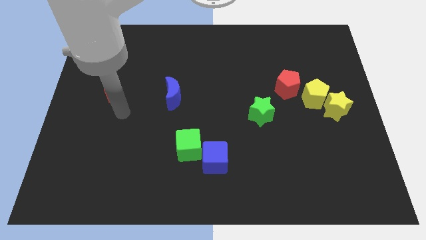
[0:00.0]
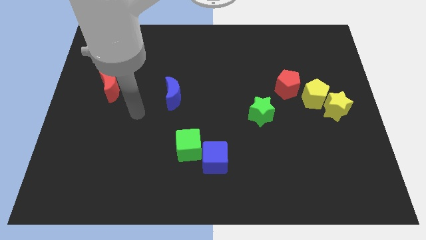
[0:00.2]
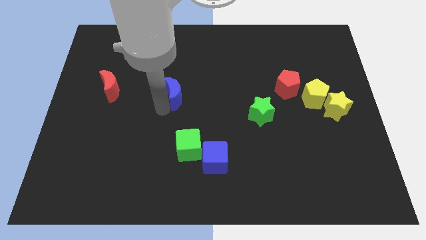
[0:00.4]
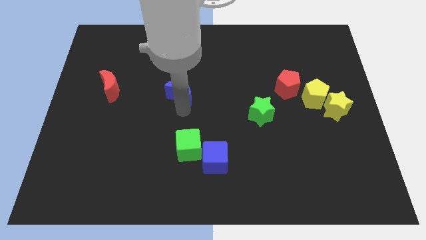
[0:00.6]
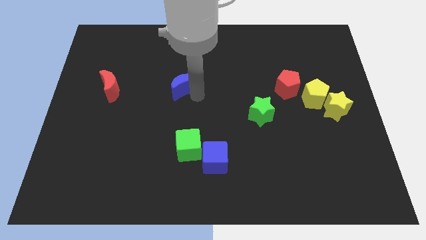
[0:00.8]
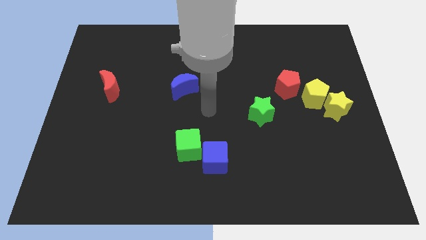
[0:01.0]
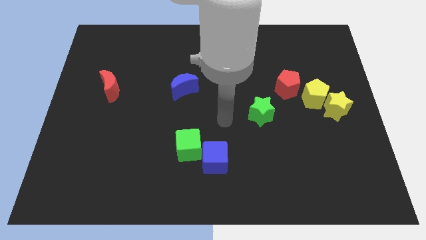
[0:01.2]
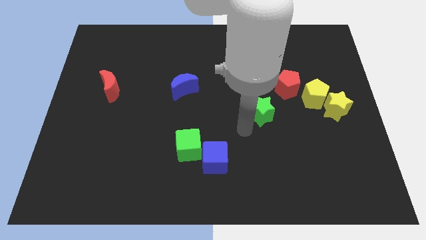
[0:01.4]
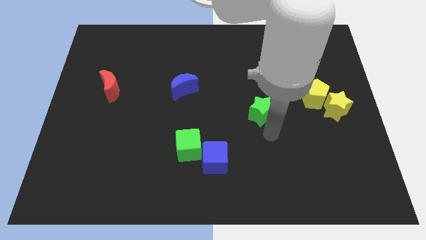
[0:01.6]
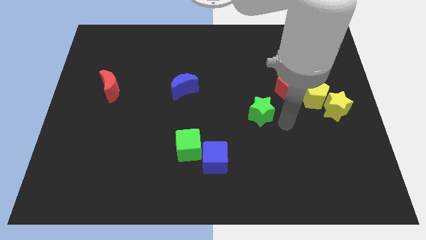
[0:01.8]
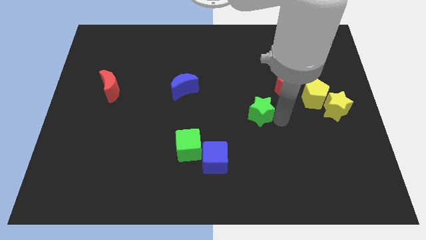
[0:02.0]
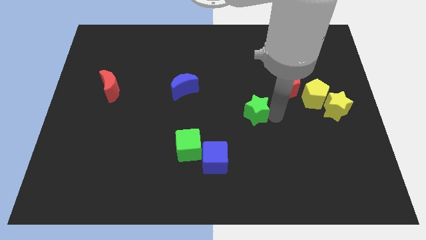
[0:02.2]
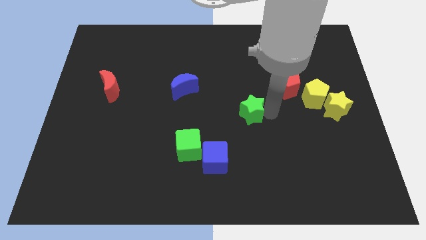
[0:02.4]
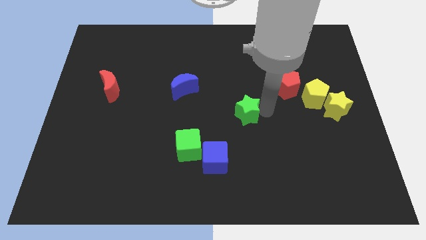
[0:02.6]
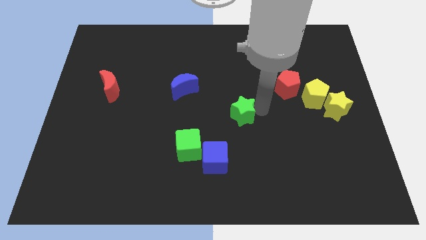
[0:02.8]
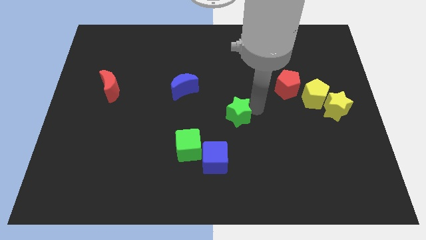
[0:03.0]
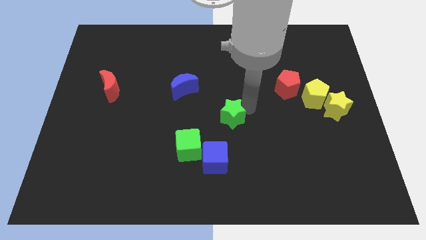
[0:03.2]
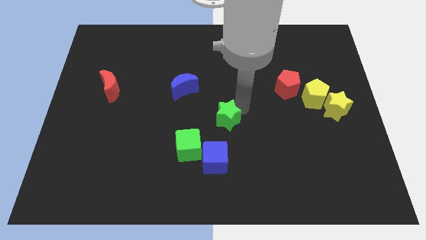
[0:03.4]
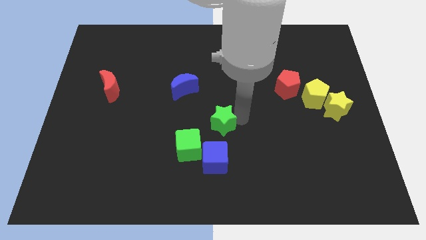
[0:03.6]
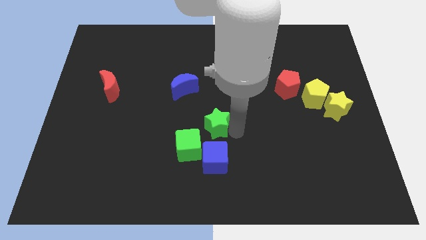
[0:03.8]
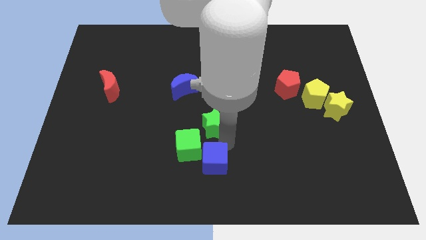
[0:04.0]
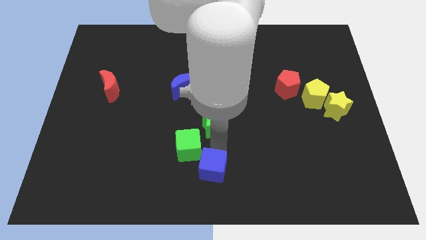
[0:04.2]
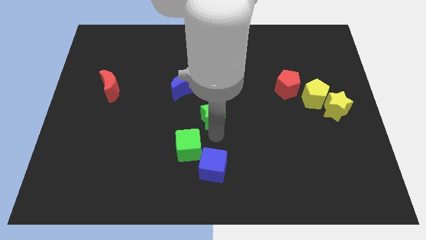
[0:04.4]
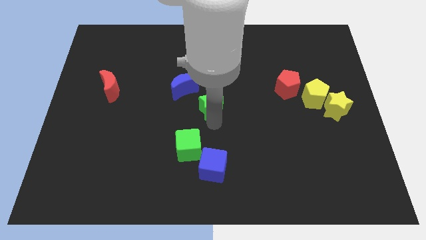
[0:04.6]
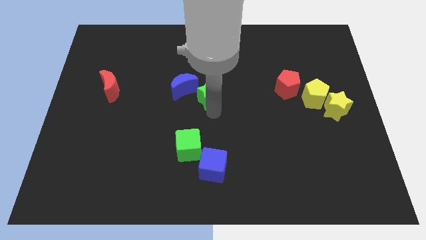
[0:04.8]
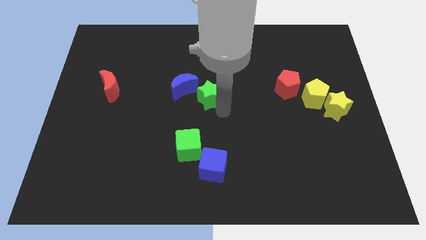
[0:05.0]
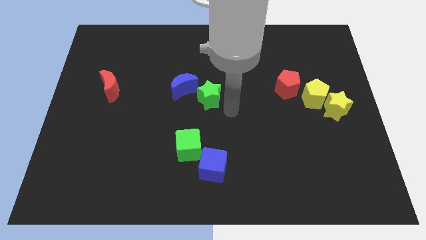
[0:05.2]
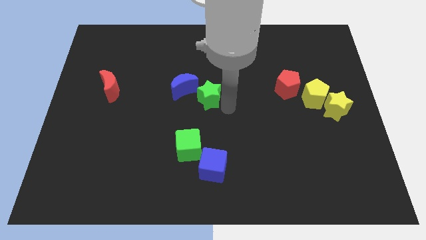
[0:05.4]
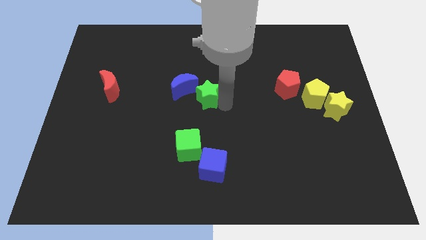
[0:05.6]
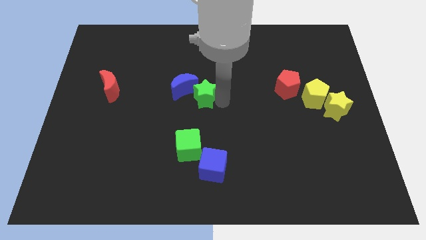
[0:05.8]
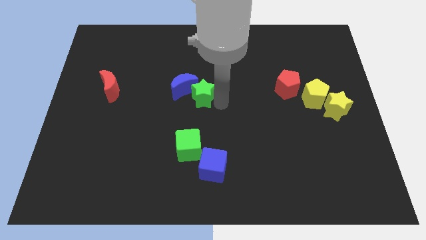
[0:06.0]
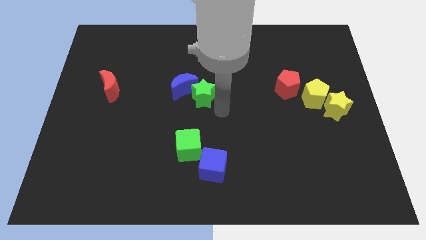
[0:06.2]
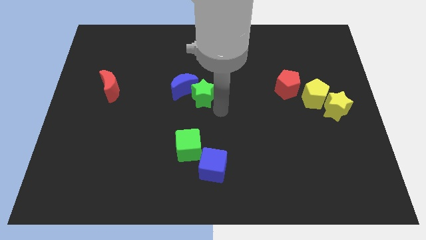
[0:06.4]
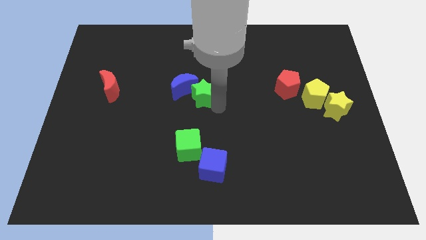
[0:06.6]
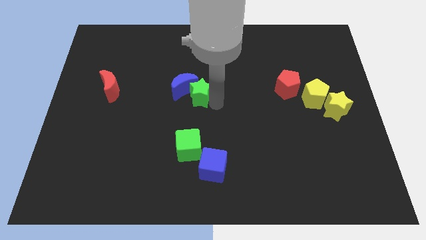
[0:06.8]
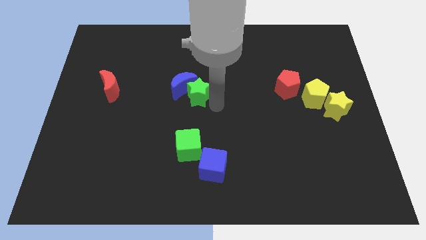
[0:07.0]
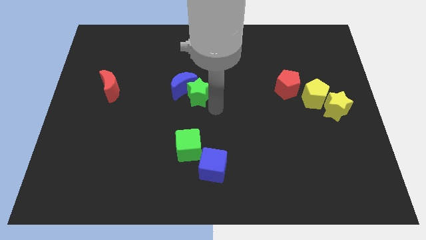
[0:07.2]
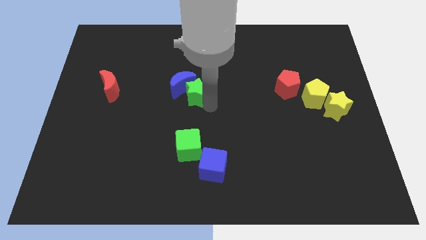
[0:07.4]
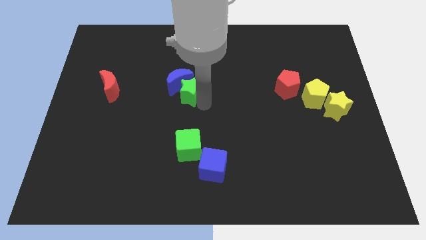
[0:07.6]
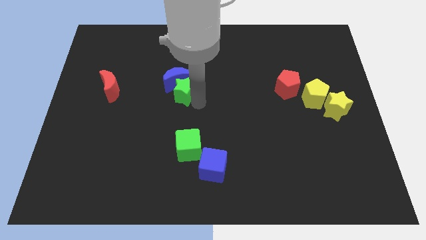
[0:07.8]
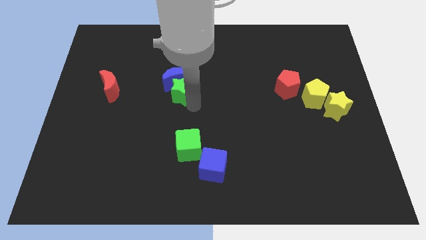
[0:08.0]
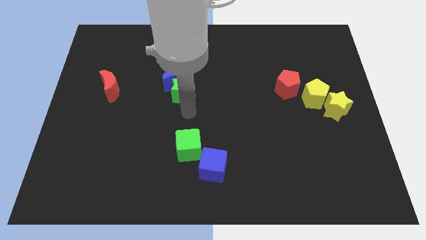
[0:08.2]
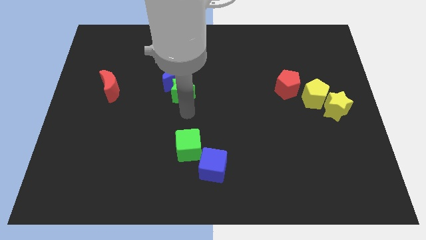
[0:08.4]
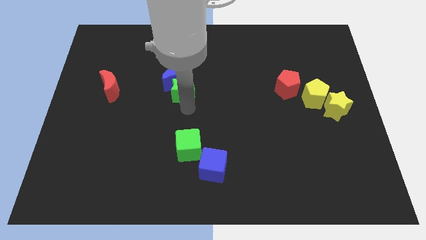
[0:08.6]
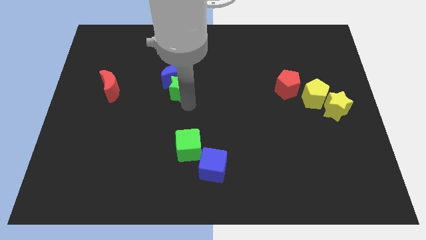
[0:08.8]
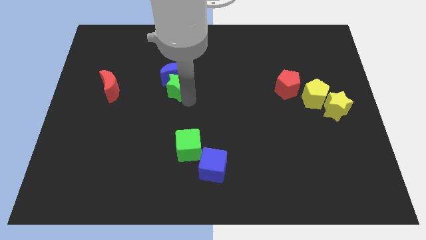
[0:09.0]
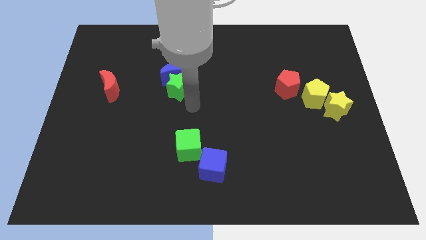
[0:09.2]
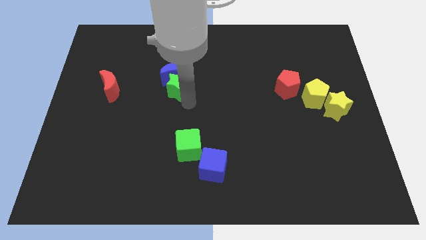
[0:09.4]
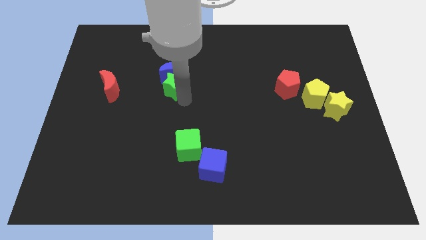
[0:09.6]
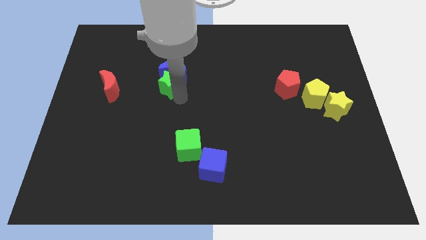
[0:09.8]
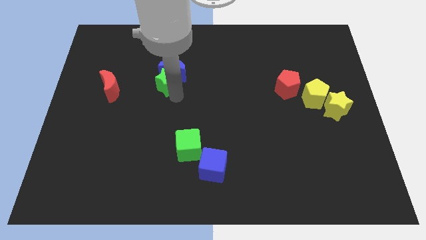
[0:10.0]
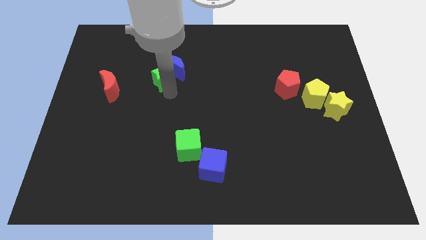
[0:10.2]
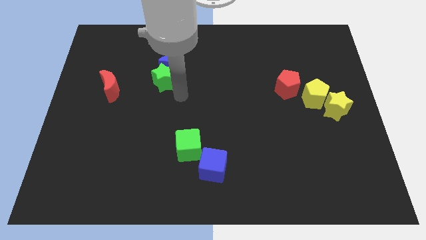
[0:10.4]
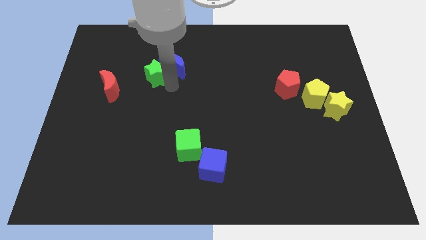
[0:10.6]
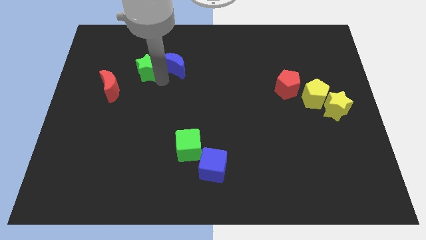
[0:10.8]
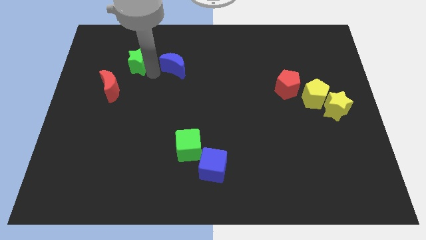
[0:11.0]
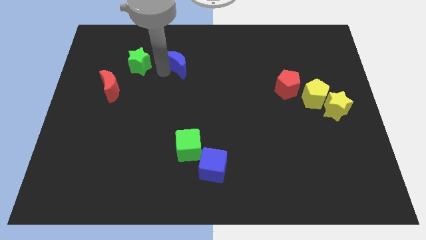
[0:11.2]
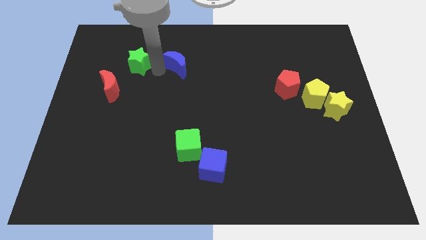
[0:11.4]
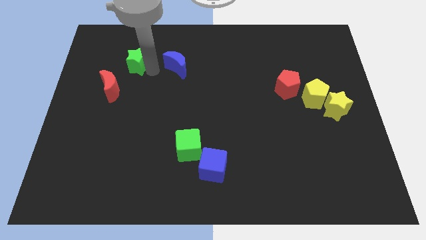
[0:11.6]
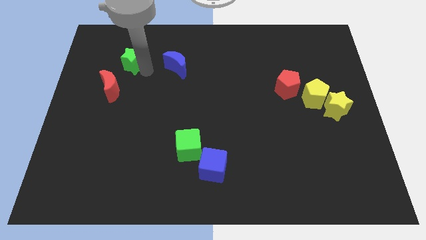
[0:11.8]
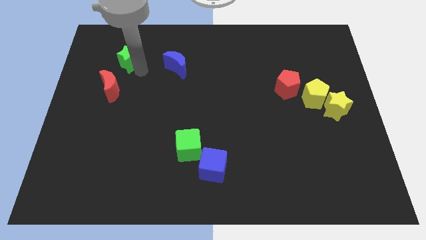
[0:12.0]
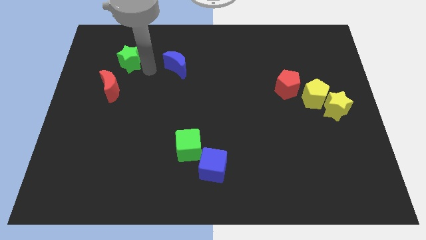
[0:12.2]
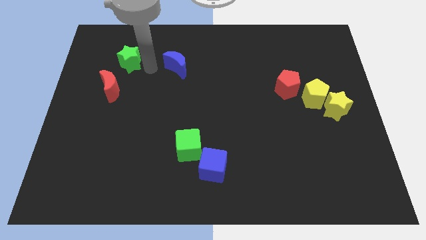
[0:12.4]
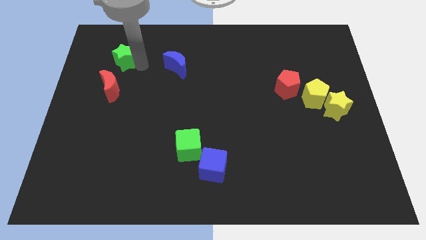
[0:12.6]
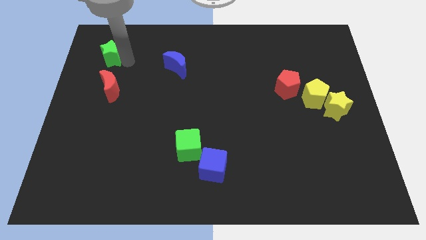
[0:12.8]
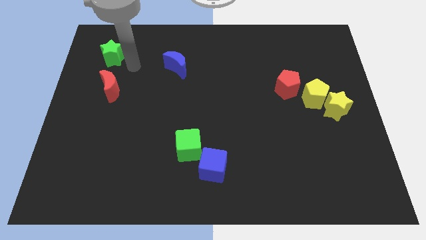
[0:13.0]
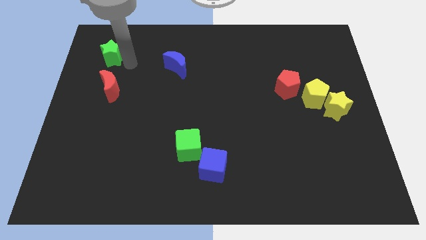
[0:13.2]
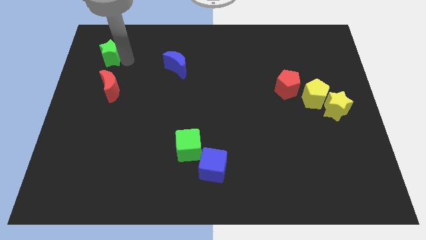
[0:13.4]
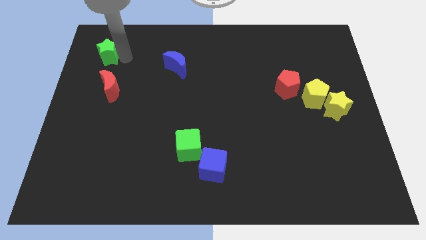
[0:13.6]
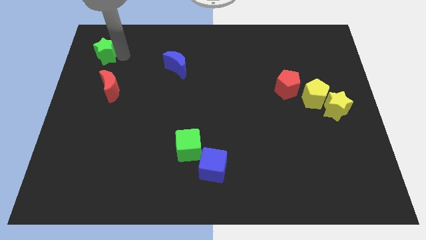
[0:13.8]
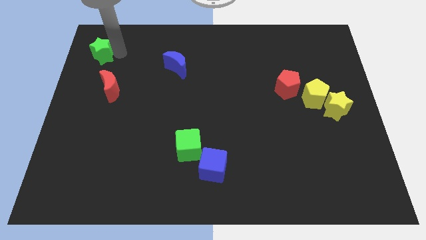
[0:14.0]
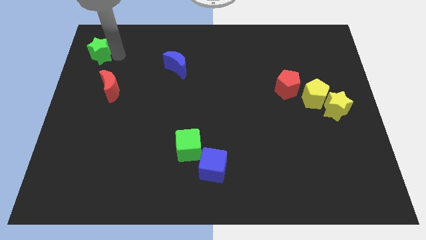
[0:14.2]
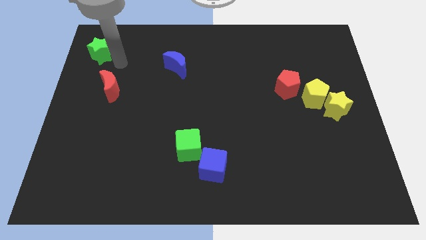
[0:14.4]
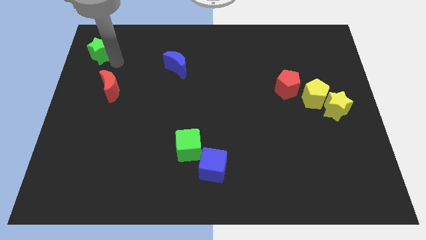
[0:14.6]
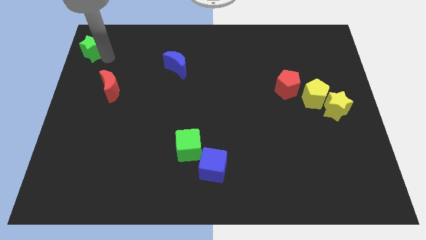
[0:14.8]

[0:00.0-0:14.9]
slide the green star to the top left of the board
